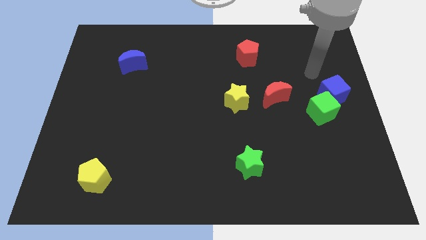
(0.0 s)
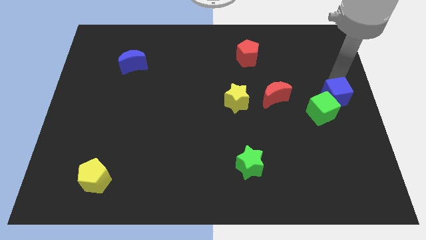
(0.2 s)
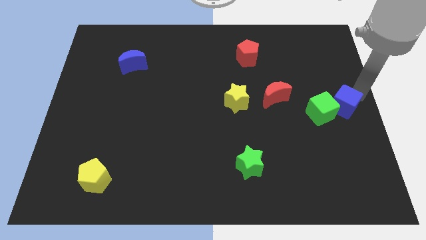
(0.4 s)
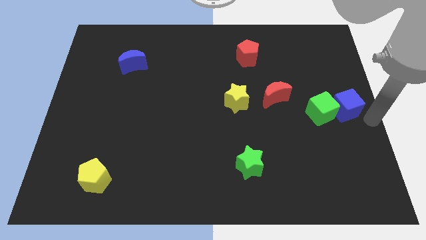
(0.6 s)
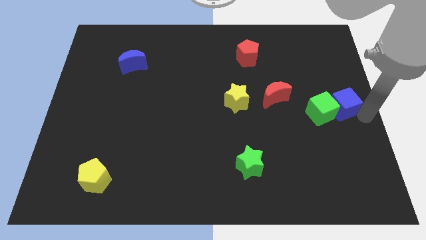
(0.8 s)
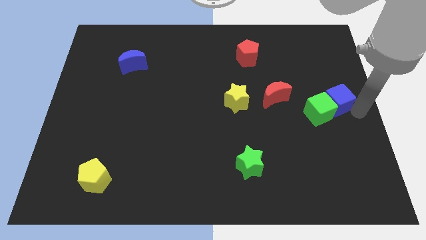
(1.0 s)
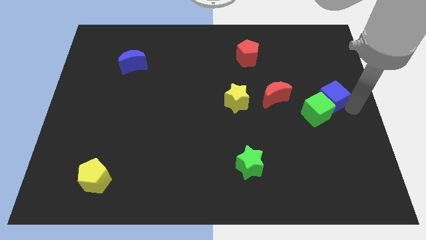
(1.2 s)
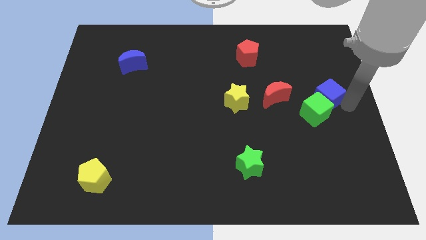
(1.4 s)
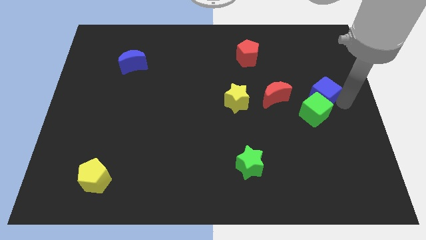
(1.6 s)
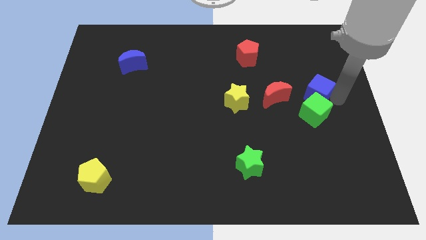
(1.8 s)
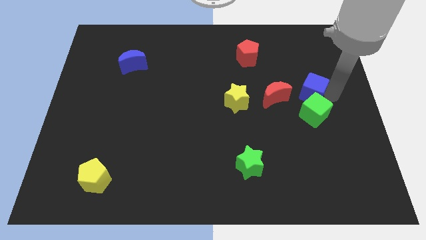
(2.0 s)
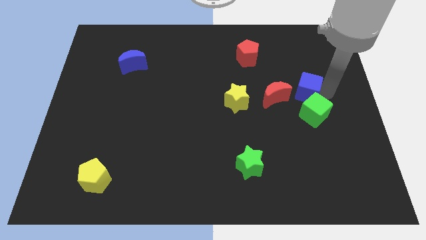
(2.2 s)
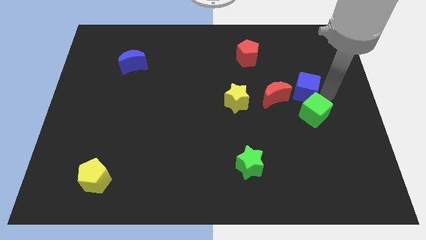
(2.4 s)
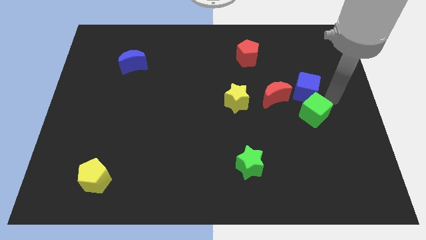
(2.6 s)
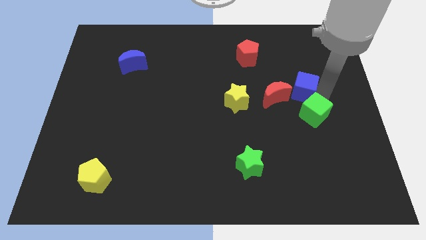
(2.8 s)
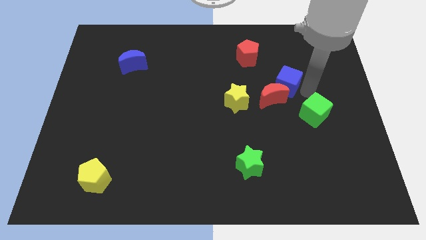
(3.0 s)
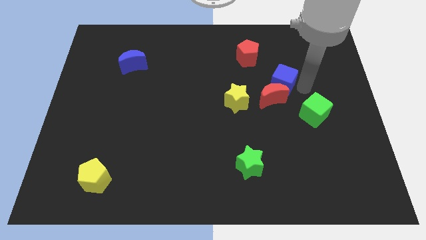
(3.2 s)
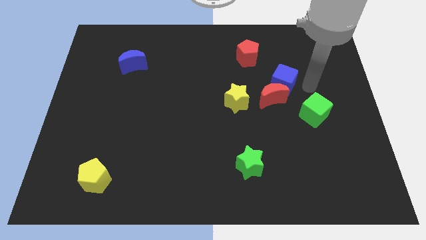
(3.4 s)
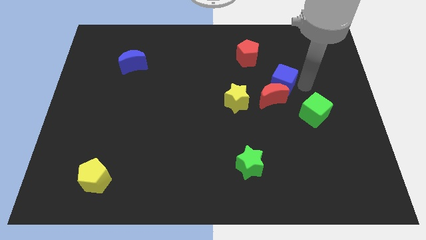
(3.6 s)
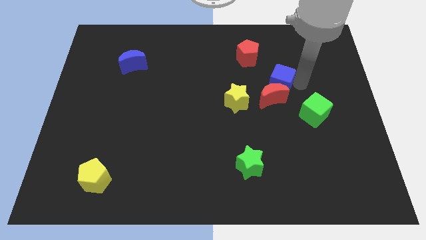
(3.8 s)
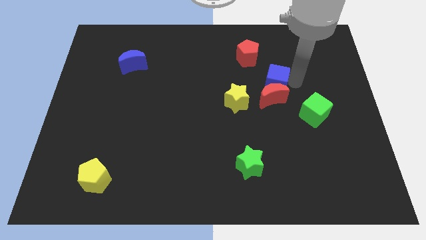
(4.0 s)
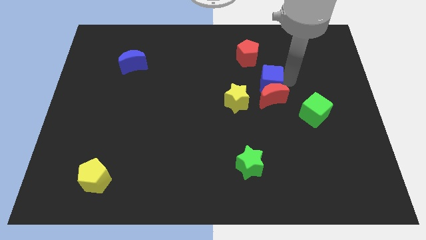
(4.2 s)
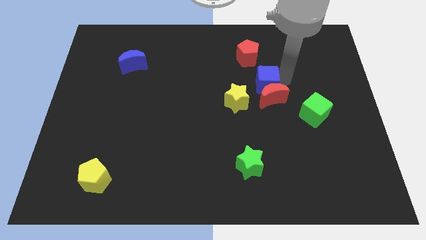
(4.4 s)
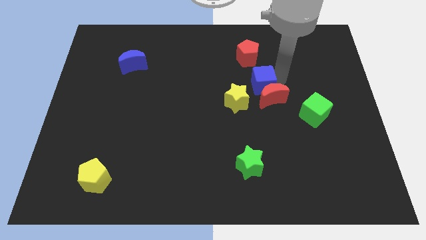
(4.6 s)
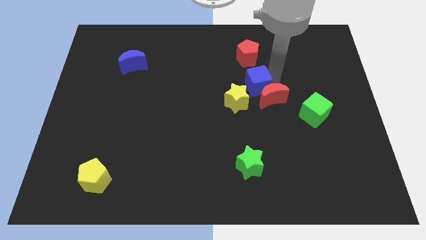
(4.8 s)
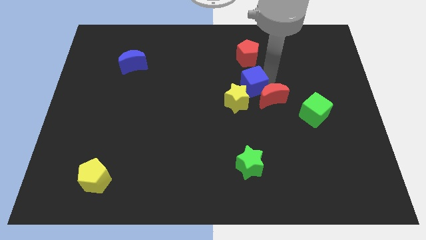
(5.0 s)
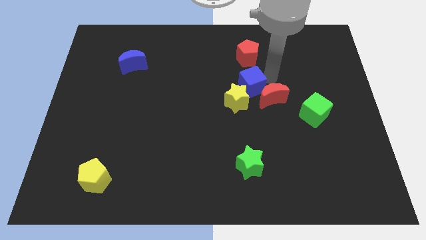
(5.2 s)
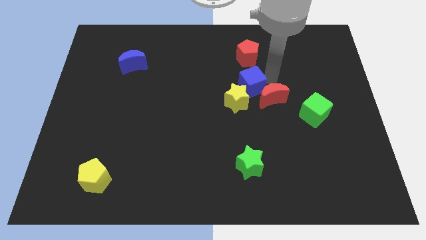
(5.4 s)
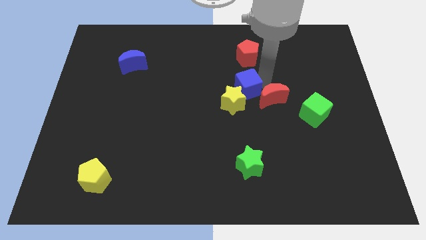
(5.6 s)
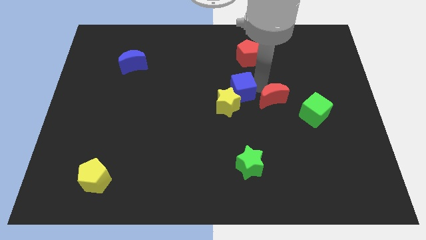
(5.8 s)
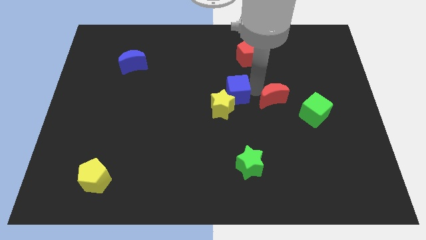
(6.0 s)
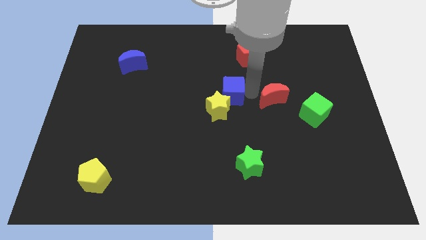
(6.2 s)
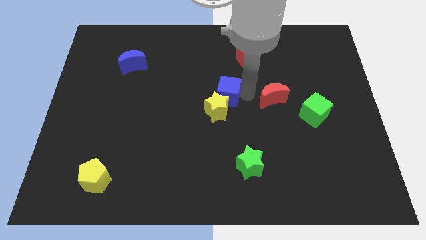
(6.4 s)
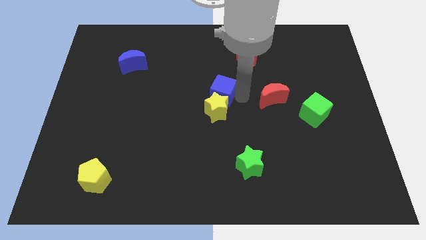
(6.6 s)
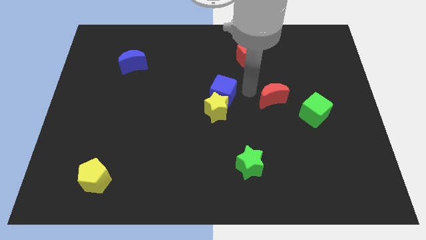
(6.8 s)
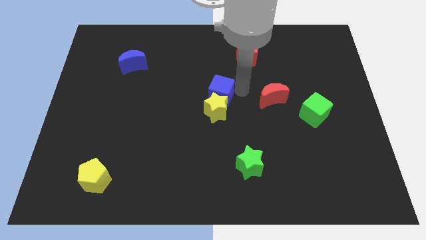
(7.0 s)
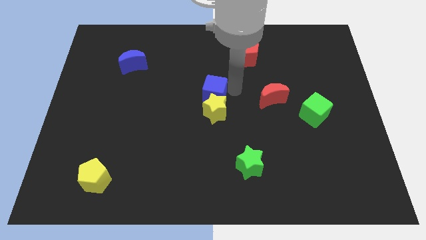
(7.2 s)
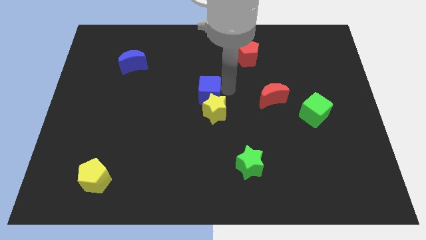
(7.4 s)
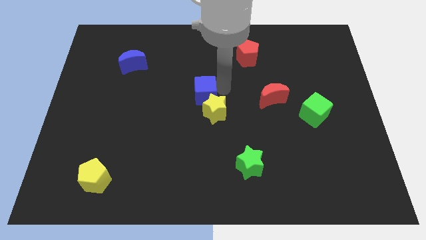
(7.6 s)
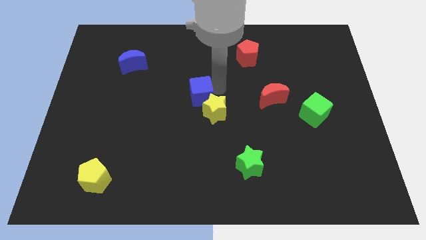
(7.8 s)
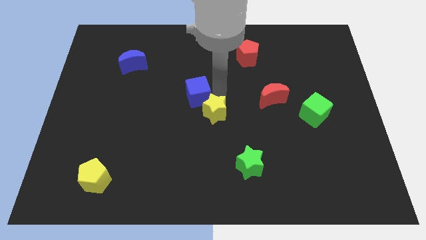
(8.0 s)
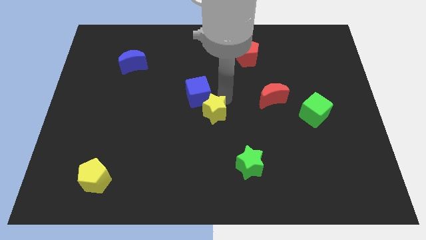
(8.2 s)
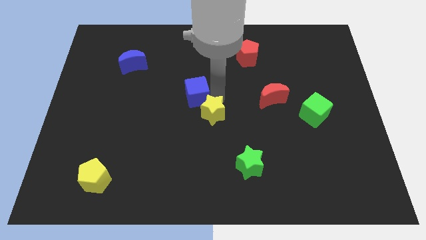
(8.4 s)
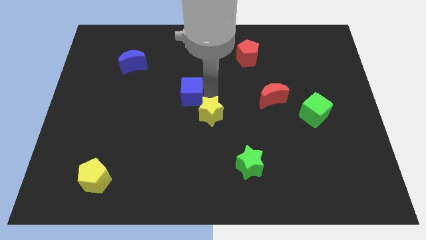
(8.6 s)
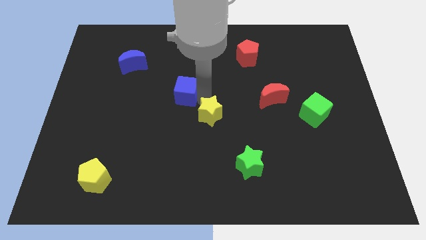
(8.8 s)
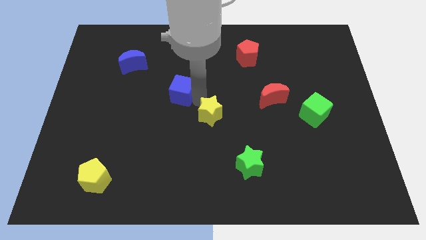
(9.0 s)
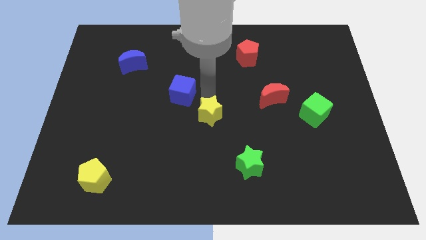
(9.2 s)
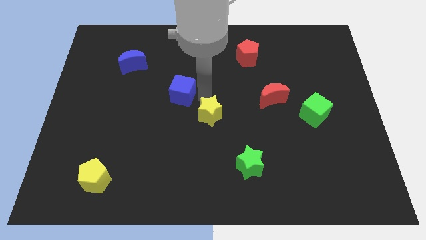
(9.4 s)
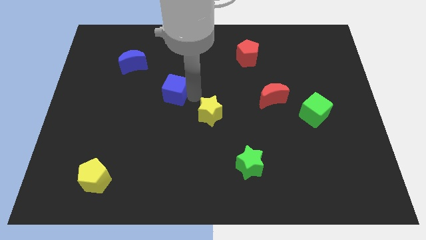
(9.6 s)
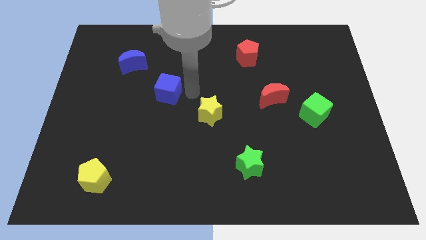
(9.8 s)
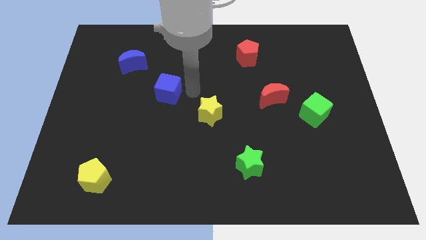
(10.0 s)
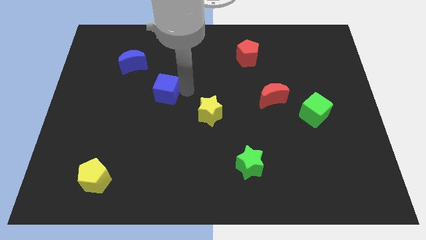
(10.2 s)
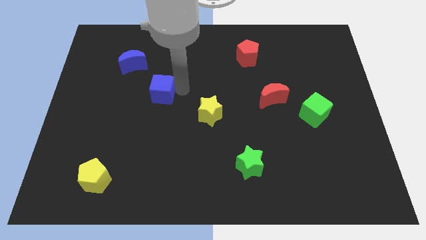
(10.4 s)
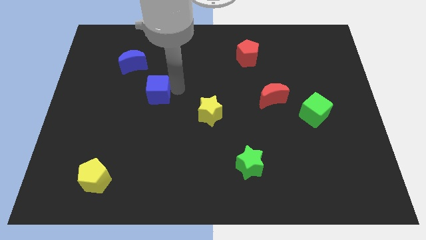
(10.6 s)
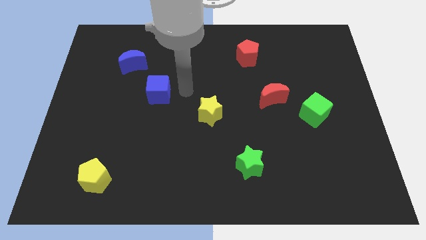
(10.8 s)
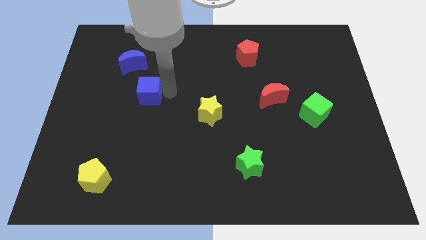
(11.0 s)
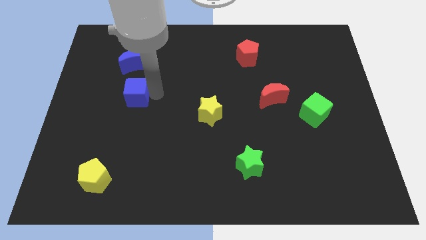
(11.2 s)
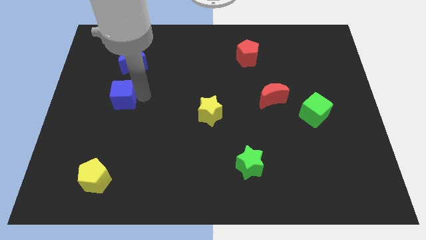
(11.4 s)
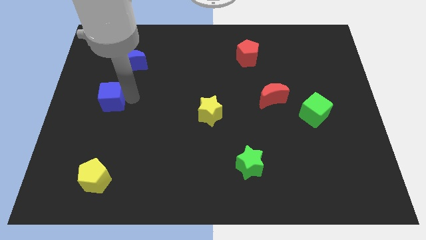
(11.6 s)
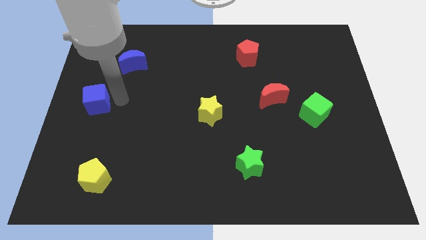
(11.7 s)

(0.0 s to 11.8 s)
put the blue cube to the left side
